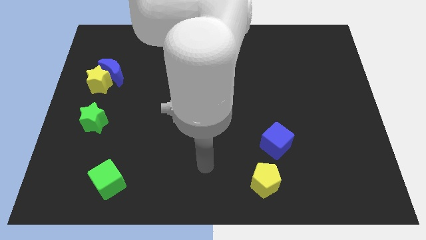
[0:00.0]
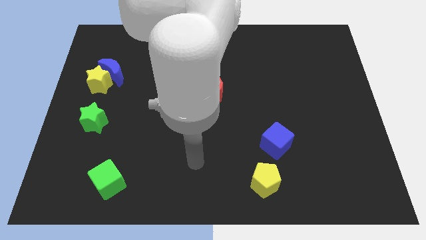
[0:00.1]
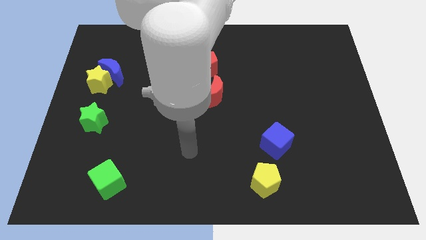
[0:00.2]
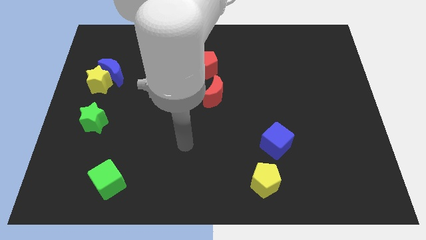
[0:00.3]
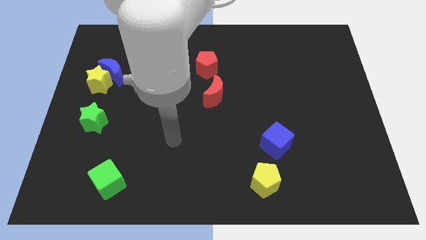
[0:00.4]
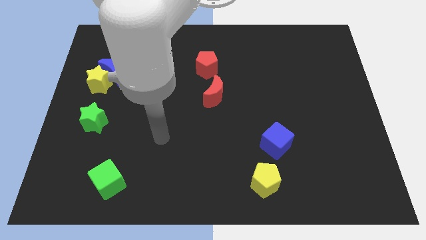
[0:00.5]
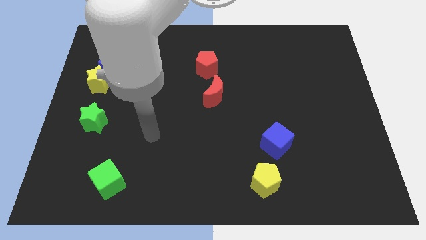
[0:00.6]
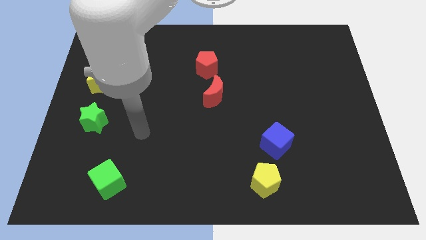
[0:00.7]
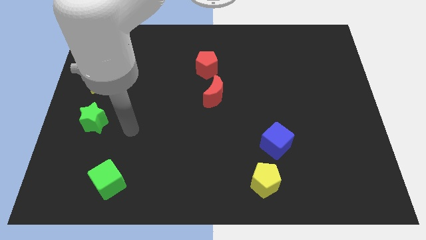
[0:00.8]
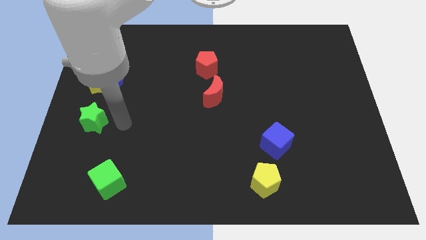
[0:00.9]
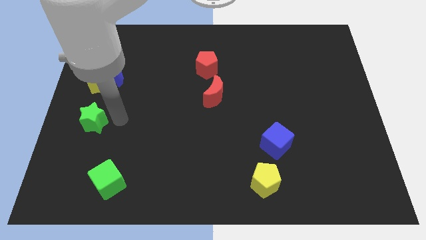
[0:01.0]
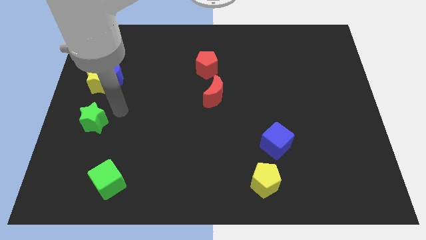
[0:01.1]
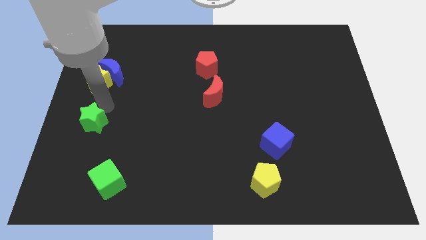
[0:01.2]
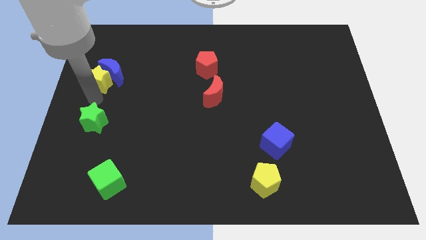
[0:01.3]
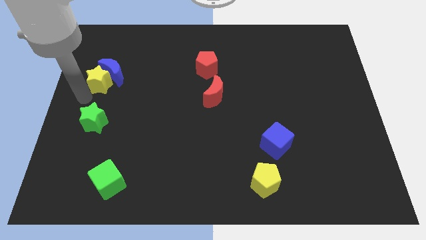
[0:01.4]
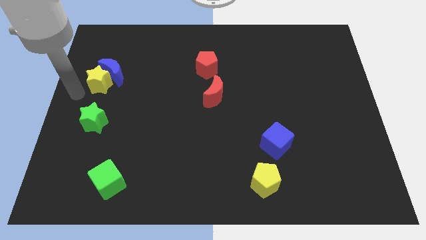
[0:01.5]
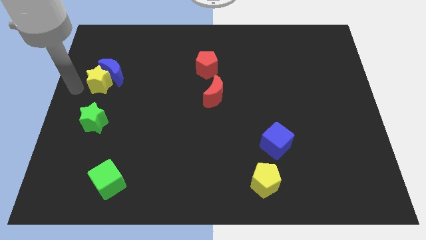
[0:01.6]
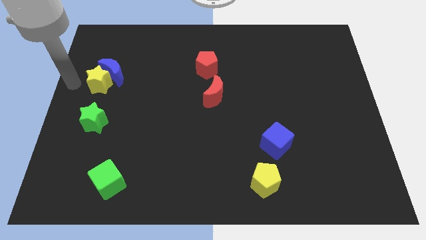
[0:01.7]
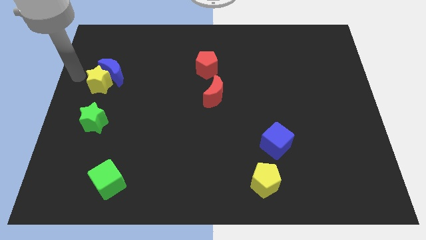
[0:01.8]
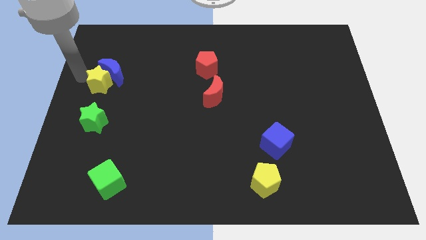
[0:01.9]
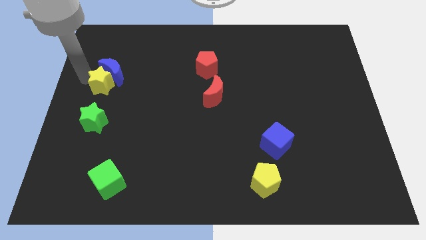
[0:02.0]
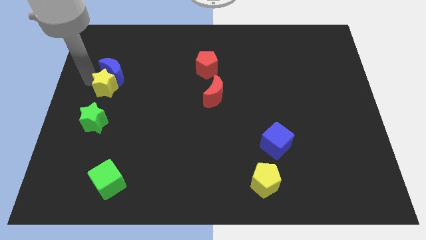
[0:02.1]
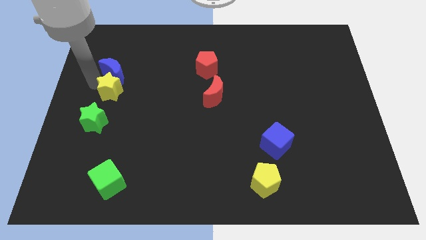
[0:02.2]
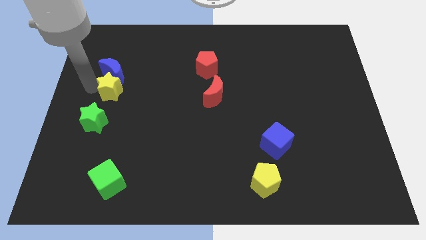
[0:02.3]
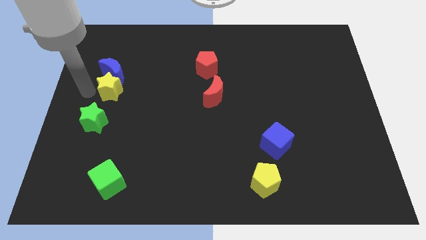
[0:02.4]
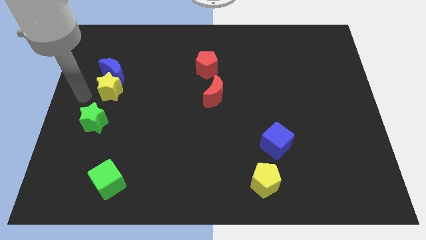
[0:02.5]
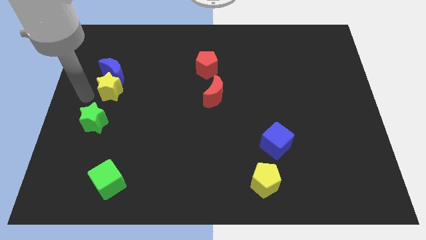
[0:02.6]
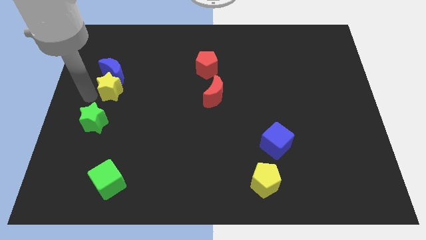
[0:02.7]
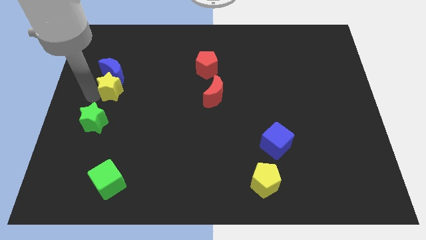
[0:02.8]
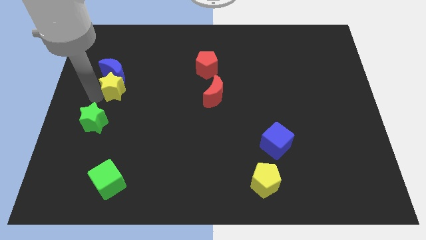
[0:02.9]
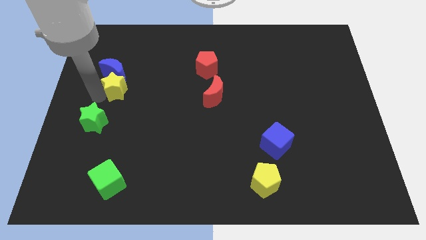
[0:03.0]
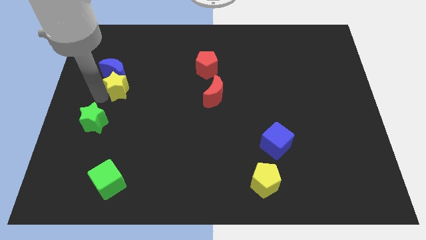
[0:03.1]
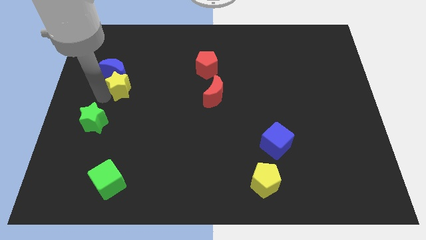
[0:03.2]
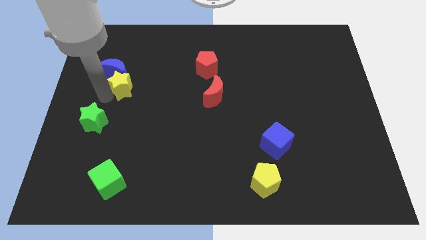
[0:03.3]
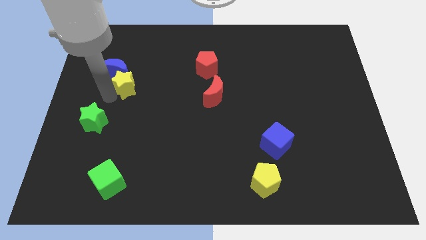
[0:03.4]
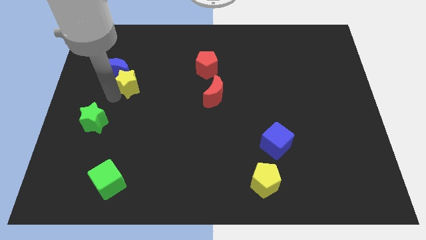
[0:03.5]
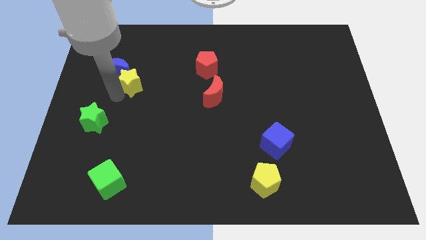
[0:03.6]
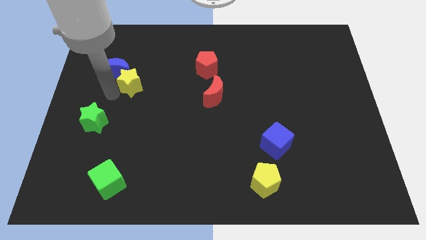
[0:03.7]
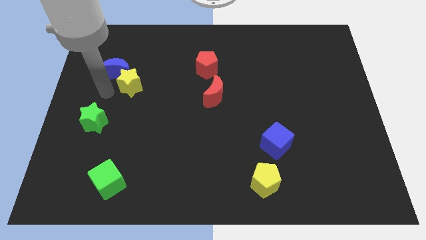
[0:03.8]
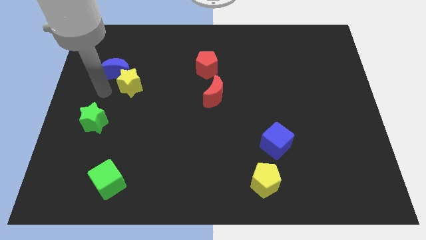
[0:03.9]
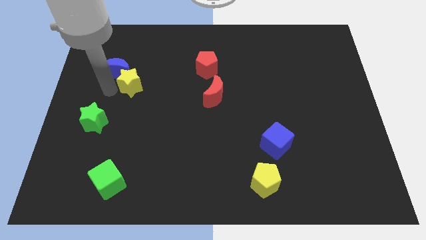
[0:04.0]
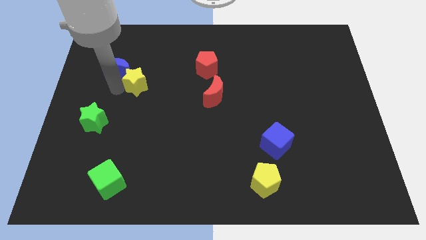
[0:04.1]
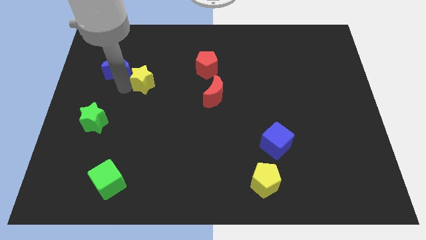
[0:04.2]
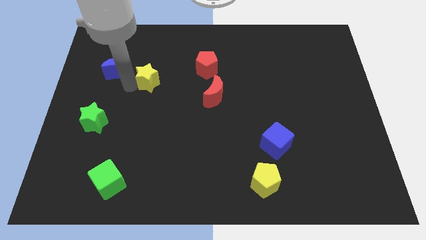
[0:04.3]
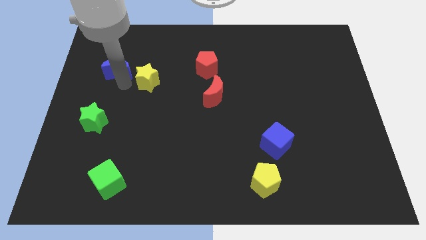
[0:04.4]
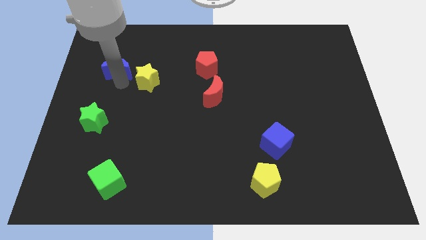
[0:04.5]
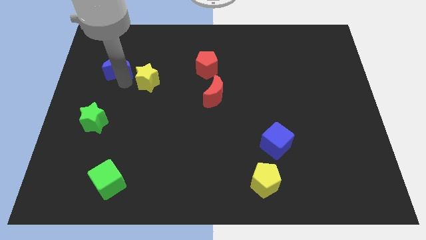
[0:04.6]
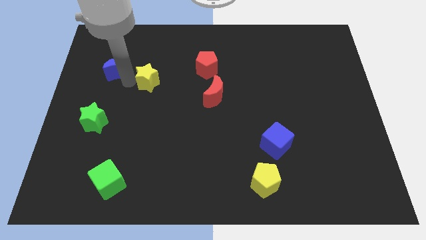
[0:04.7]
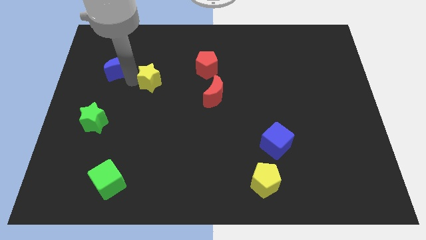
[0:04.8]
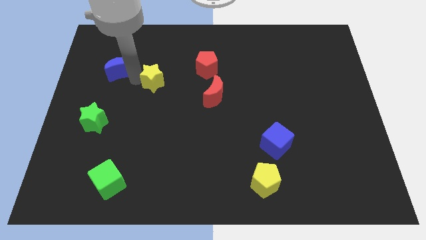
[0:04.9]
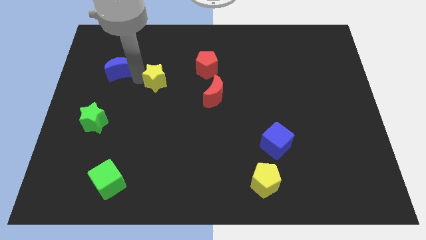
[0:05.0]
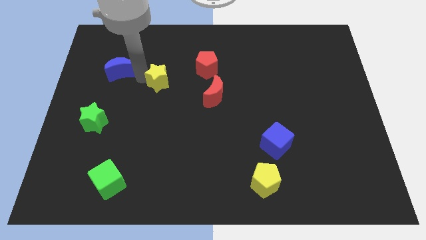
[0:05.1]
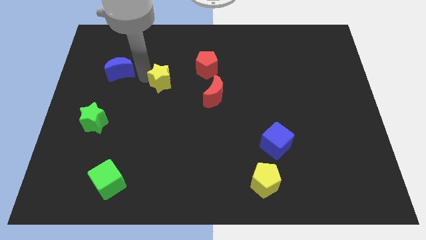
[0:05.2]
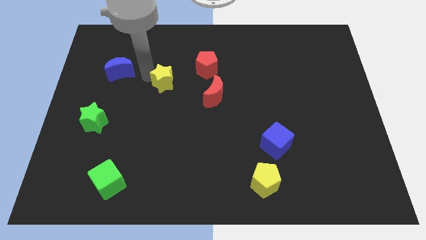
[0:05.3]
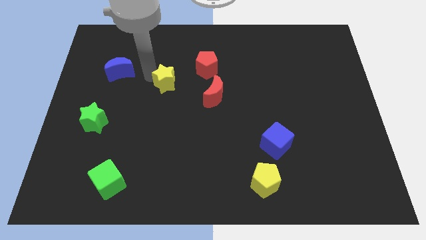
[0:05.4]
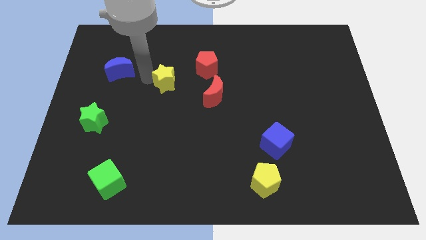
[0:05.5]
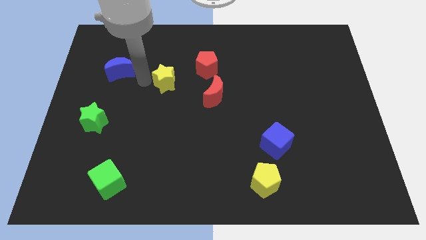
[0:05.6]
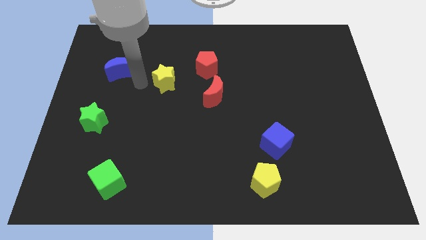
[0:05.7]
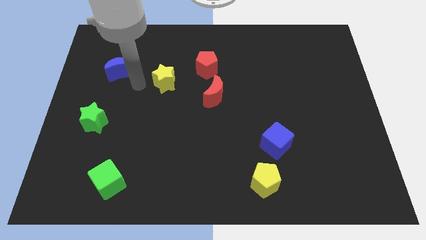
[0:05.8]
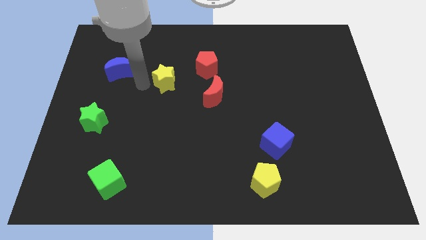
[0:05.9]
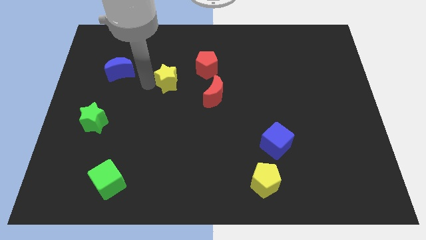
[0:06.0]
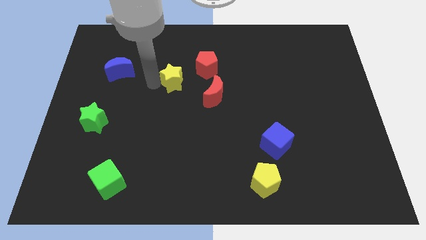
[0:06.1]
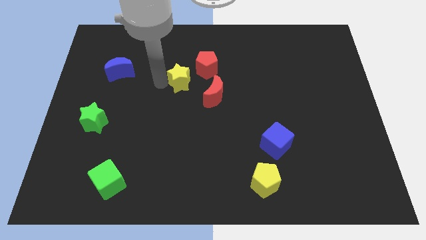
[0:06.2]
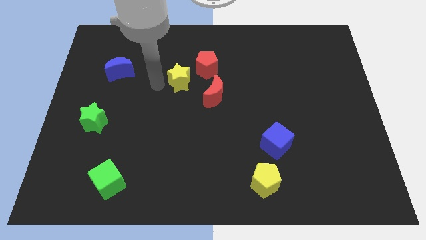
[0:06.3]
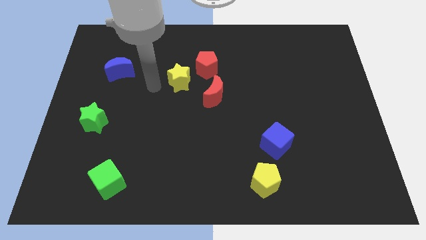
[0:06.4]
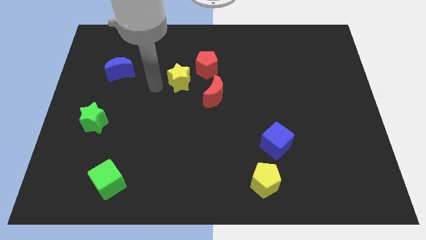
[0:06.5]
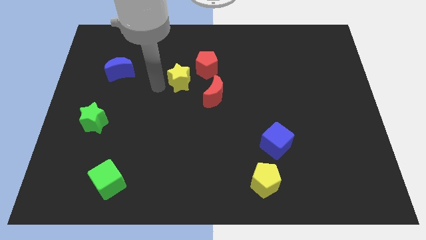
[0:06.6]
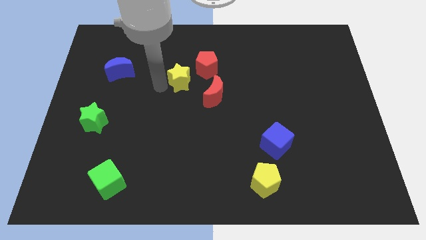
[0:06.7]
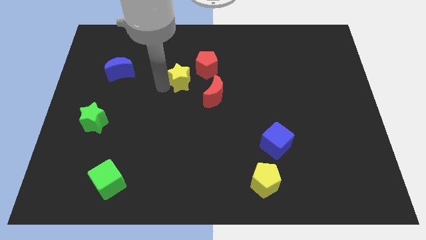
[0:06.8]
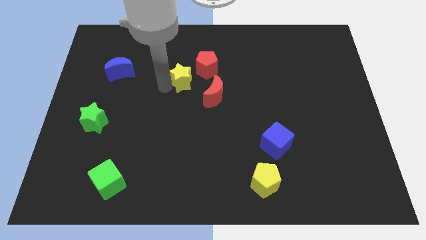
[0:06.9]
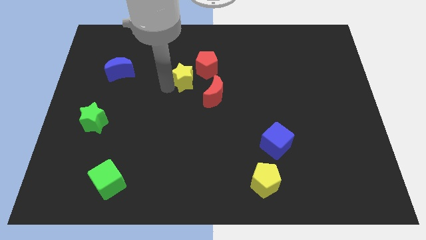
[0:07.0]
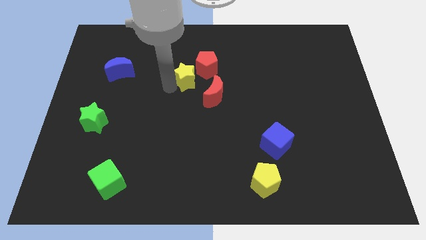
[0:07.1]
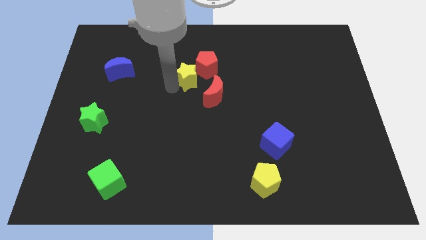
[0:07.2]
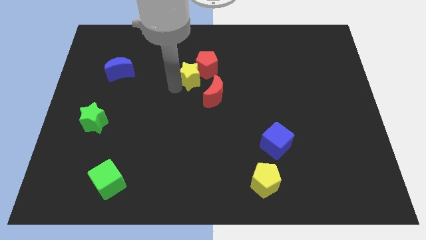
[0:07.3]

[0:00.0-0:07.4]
put the yellow star towards the red pentagon
